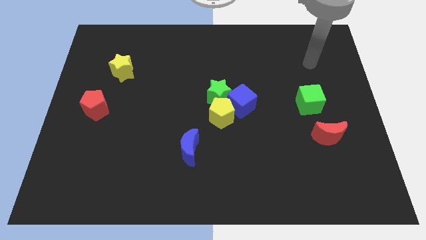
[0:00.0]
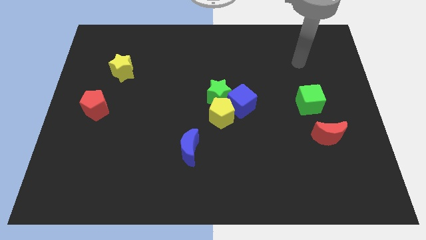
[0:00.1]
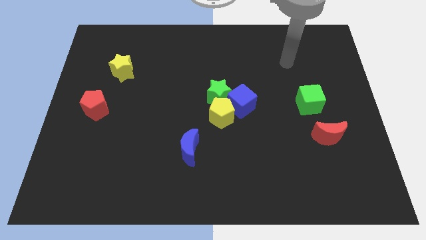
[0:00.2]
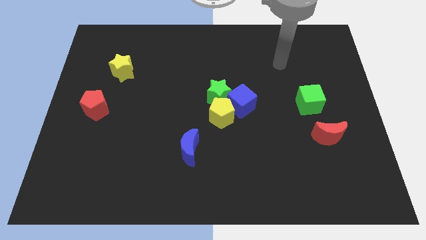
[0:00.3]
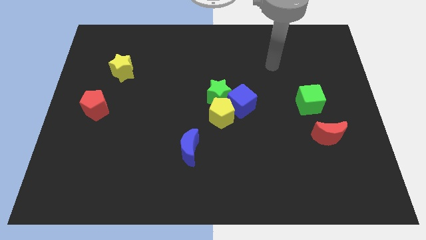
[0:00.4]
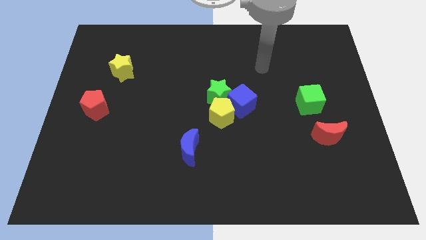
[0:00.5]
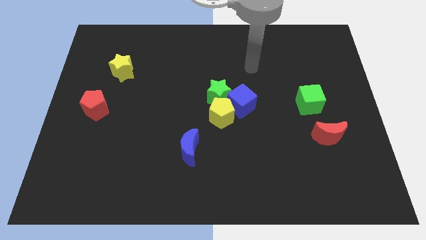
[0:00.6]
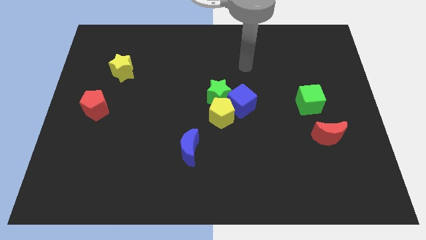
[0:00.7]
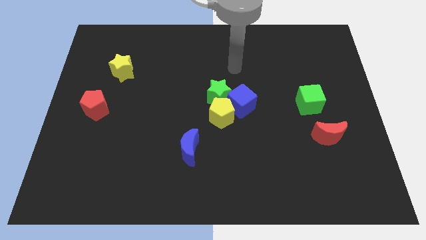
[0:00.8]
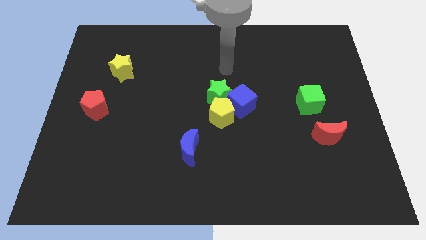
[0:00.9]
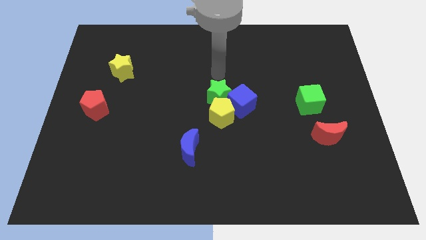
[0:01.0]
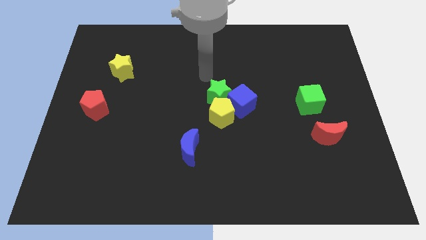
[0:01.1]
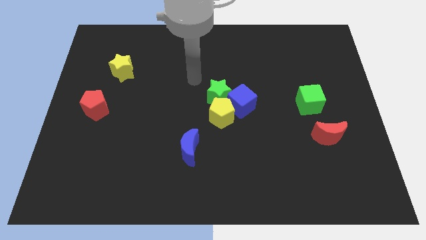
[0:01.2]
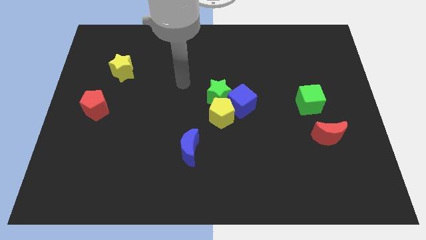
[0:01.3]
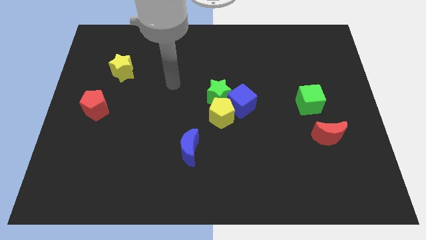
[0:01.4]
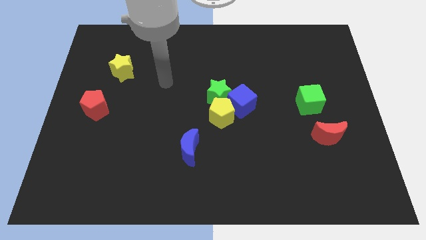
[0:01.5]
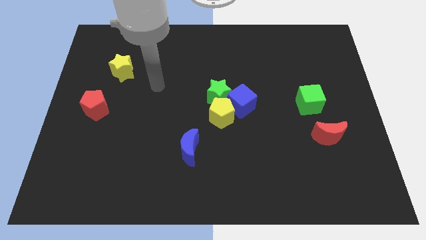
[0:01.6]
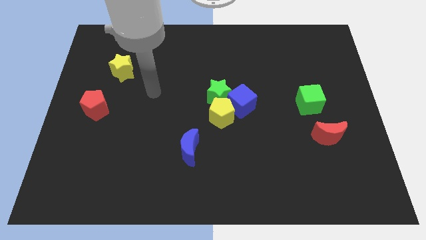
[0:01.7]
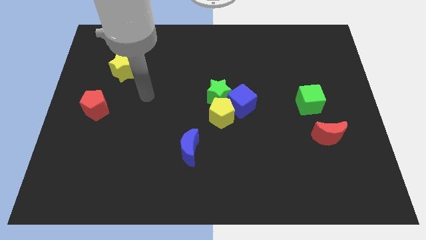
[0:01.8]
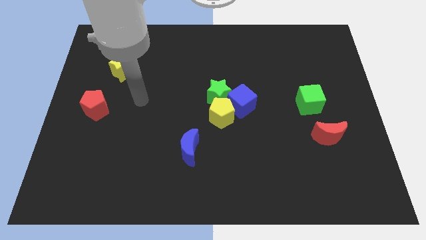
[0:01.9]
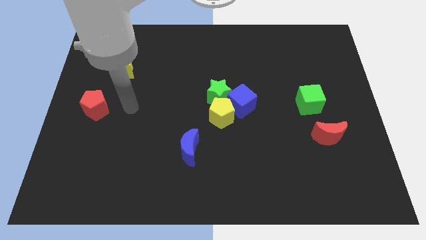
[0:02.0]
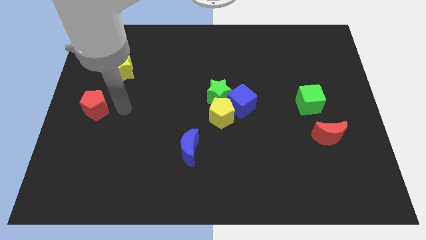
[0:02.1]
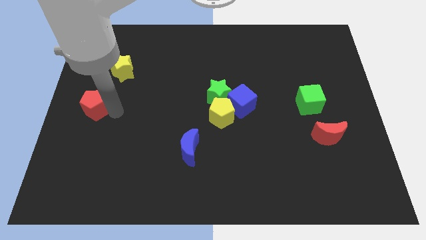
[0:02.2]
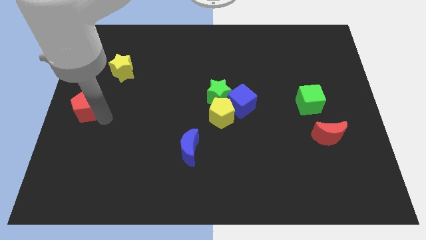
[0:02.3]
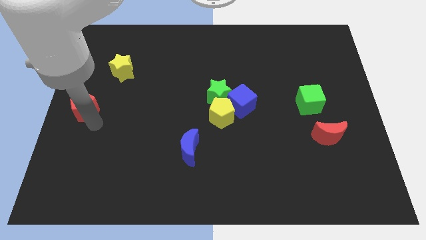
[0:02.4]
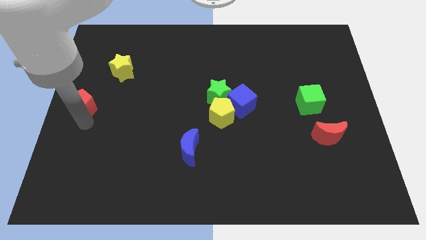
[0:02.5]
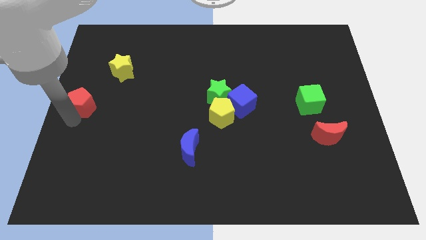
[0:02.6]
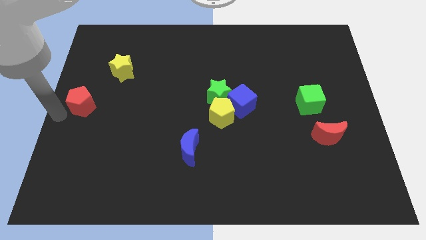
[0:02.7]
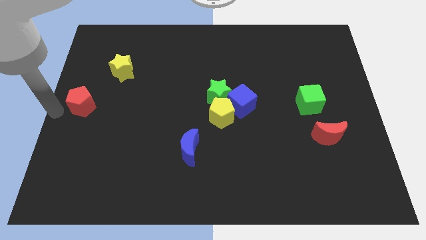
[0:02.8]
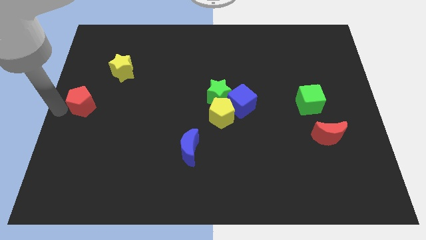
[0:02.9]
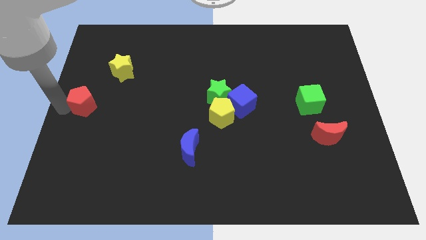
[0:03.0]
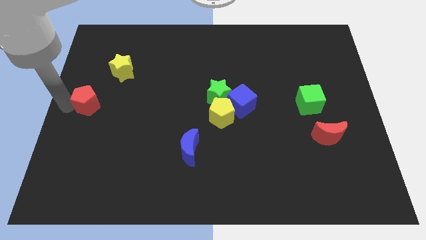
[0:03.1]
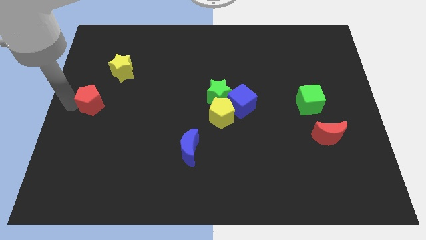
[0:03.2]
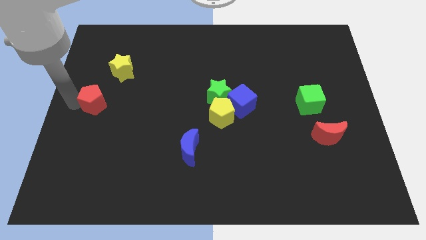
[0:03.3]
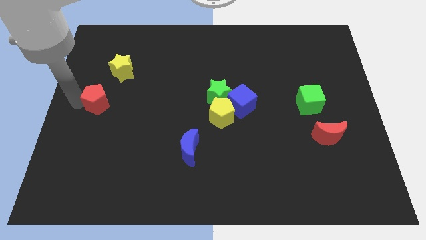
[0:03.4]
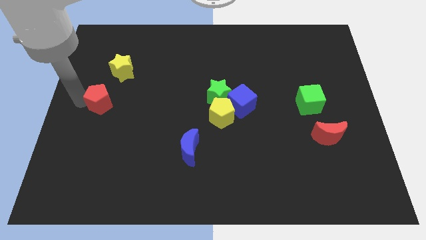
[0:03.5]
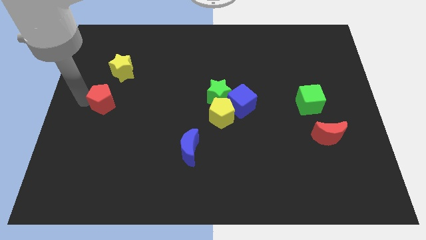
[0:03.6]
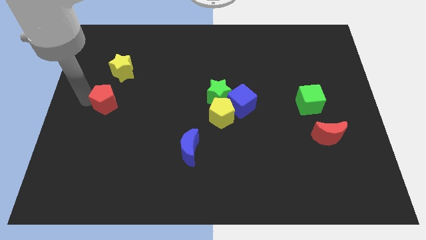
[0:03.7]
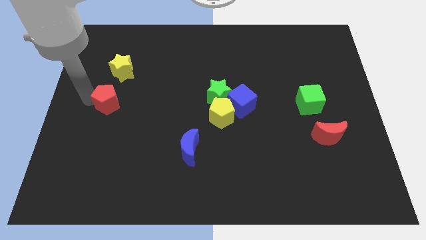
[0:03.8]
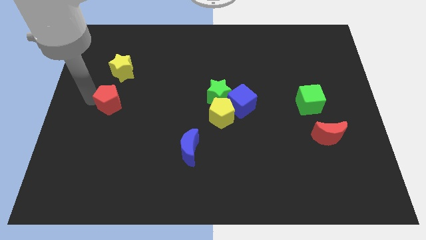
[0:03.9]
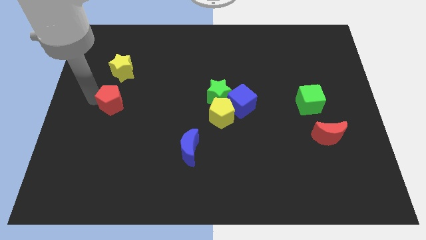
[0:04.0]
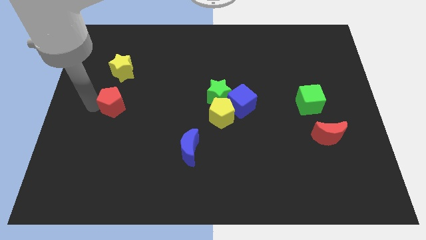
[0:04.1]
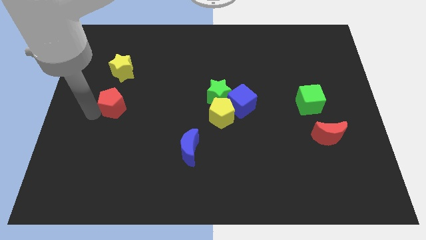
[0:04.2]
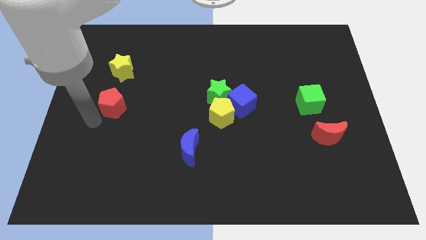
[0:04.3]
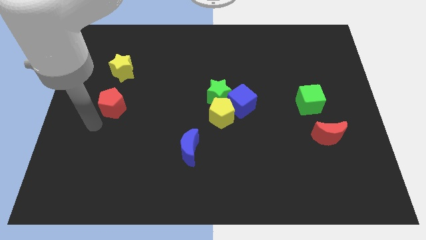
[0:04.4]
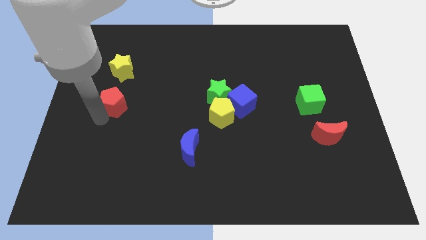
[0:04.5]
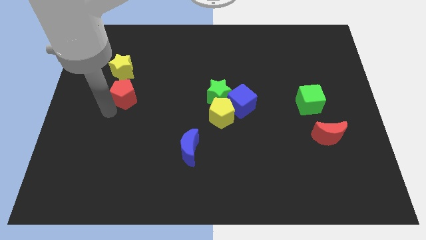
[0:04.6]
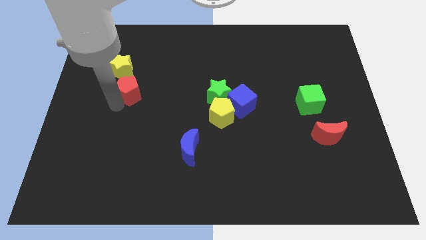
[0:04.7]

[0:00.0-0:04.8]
slightly move the red pentagon upwards and right

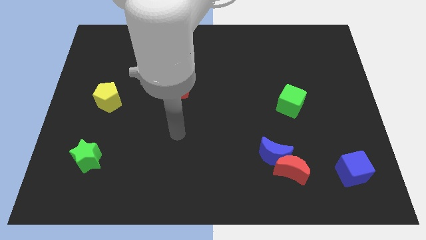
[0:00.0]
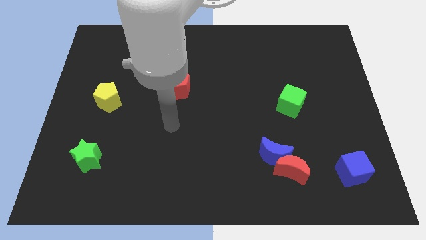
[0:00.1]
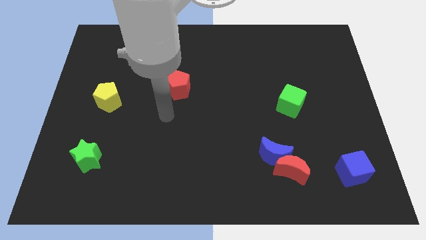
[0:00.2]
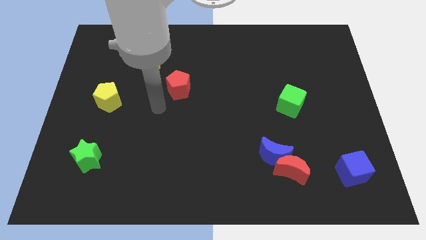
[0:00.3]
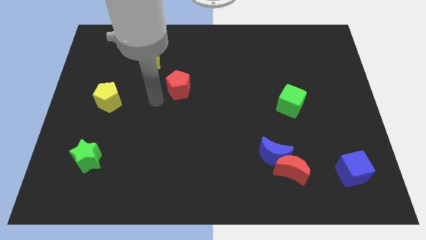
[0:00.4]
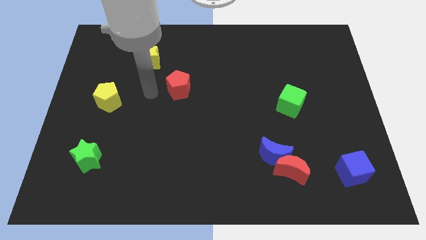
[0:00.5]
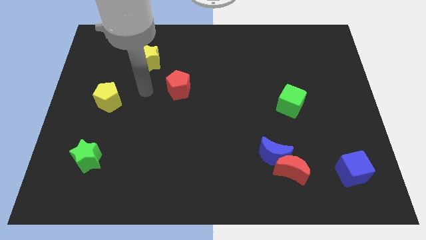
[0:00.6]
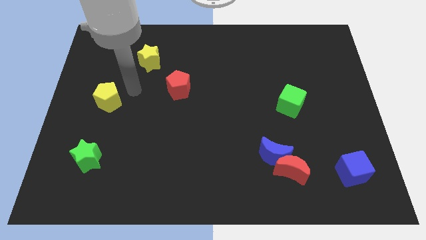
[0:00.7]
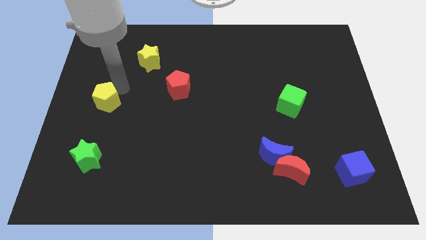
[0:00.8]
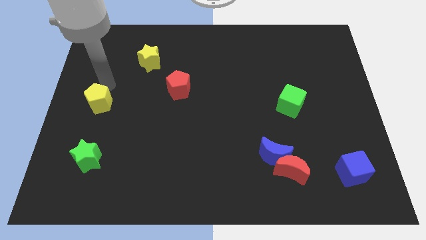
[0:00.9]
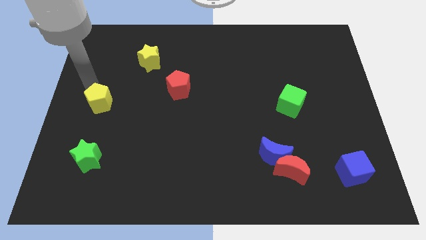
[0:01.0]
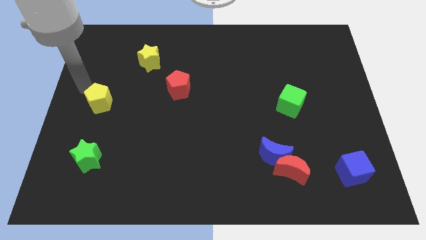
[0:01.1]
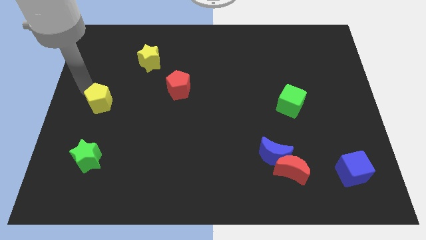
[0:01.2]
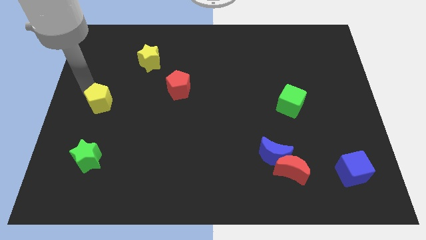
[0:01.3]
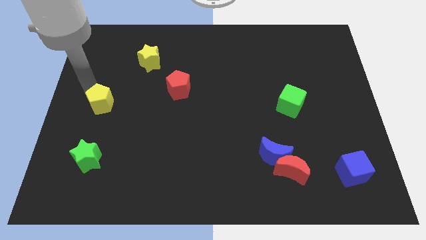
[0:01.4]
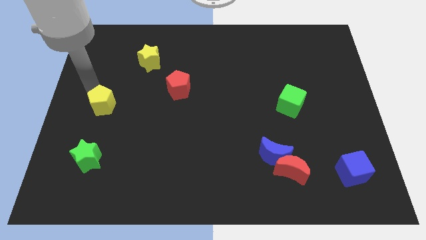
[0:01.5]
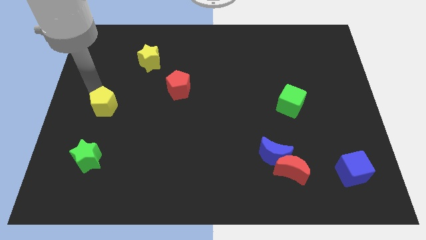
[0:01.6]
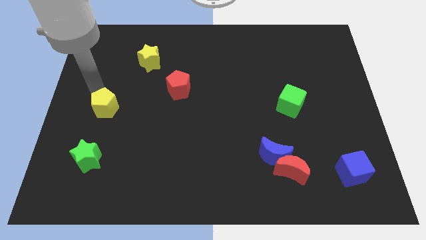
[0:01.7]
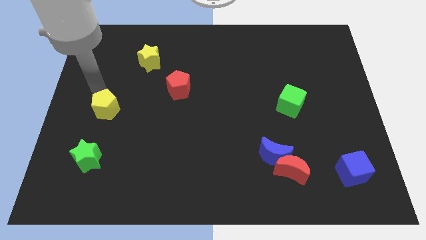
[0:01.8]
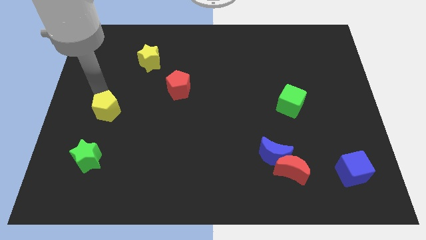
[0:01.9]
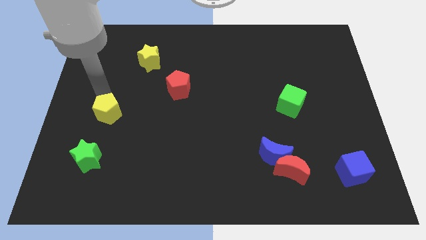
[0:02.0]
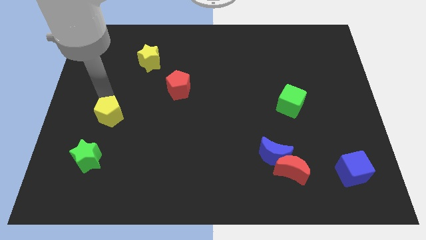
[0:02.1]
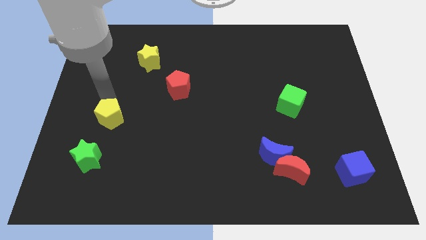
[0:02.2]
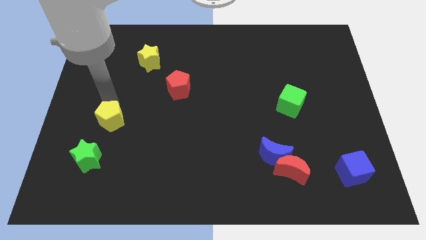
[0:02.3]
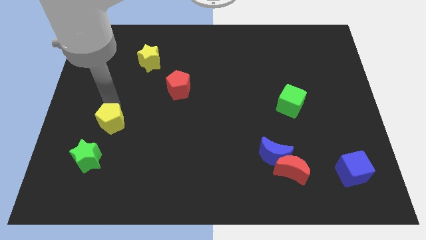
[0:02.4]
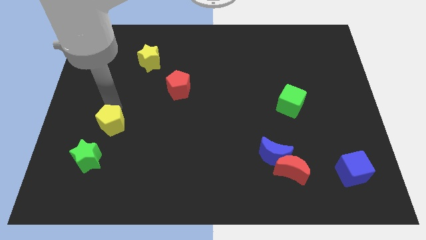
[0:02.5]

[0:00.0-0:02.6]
slightly move the yellow pentagon downwards

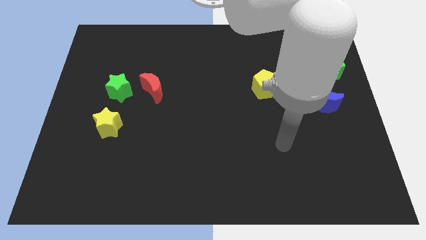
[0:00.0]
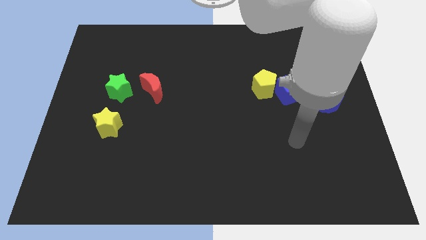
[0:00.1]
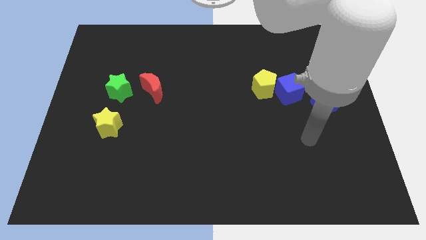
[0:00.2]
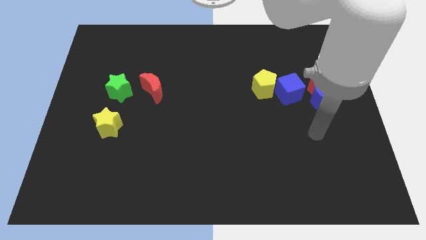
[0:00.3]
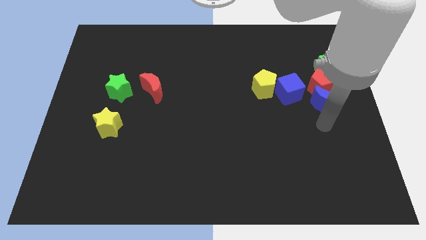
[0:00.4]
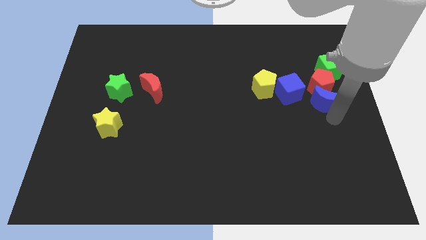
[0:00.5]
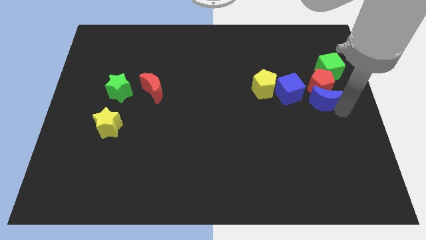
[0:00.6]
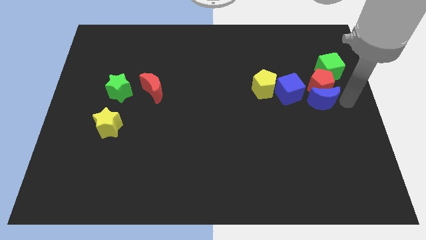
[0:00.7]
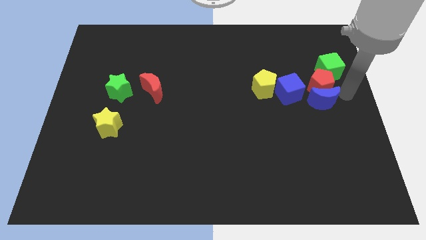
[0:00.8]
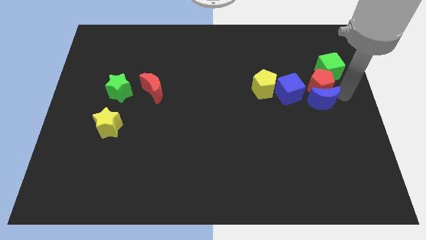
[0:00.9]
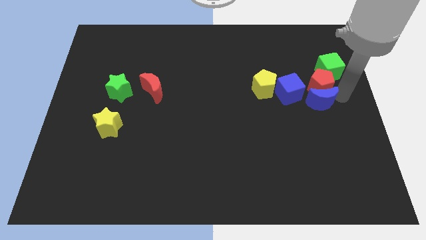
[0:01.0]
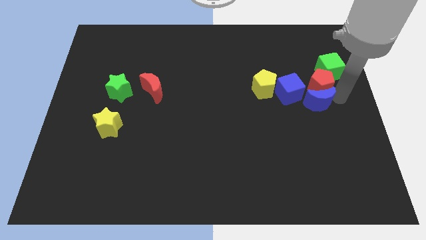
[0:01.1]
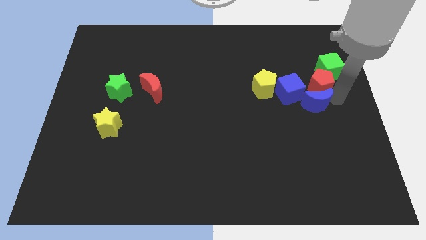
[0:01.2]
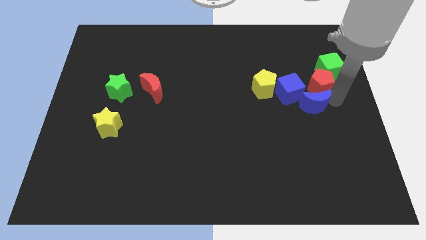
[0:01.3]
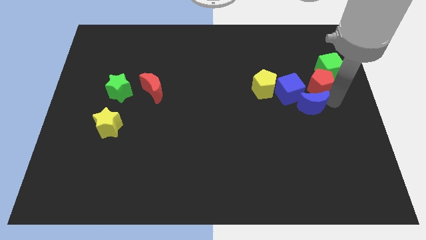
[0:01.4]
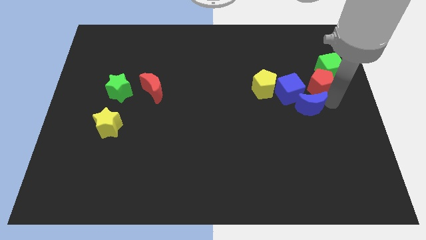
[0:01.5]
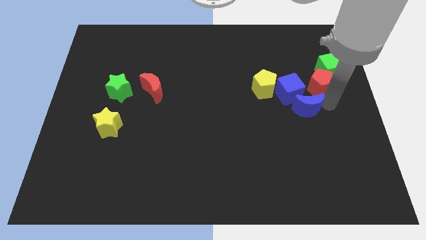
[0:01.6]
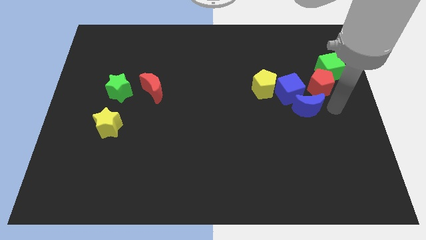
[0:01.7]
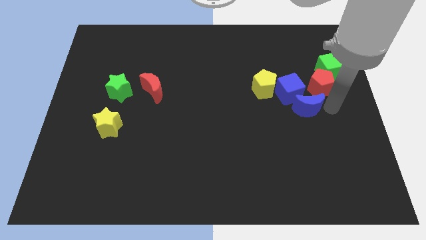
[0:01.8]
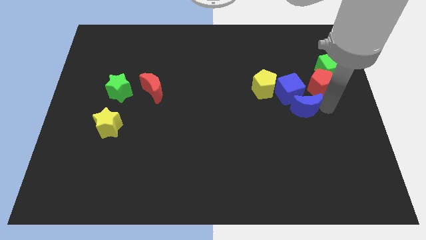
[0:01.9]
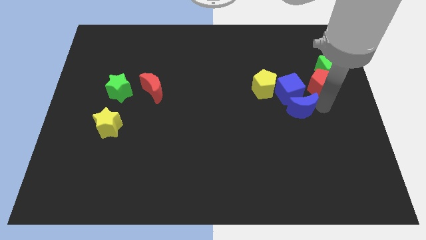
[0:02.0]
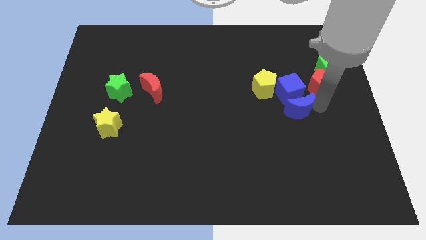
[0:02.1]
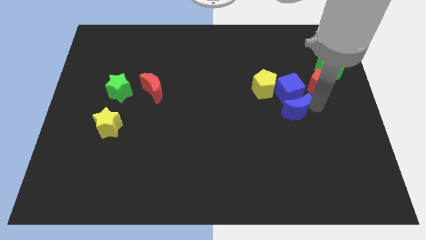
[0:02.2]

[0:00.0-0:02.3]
slightly slide the blue moon to the left
